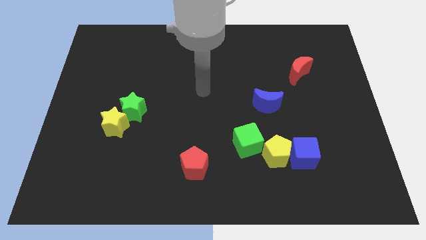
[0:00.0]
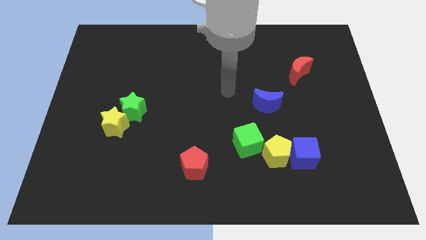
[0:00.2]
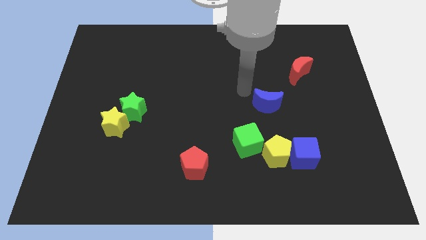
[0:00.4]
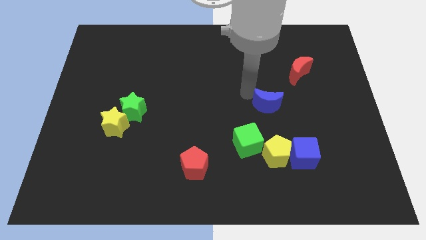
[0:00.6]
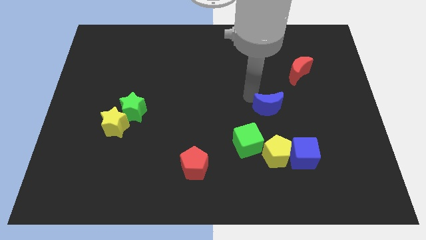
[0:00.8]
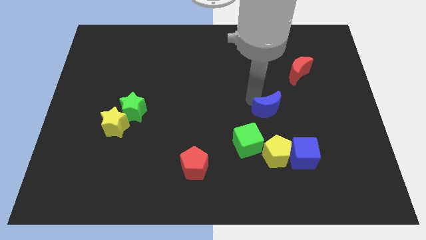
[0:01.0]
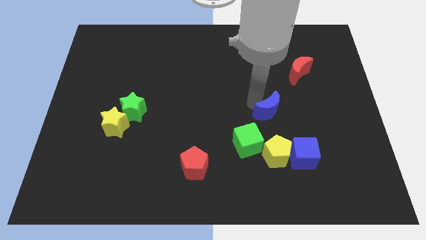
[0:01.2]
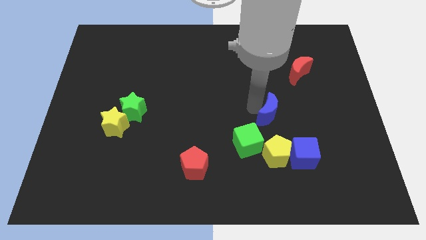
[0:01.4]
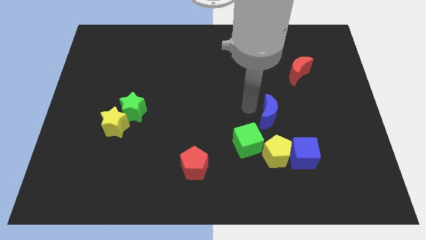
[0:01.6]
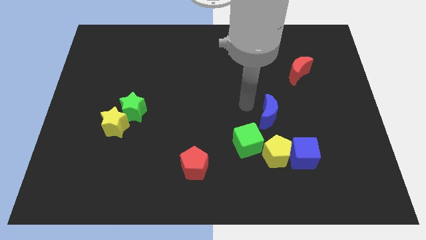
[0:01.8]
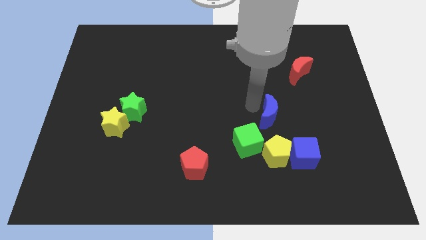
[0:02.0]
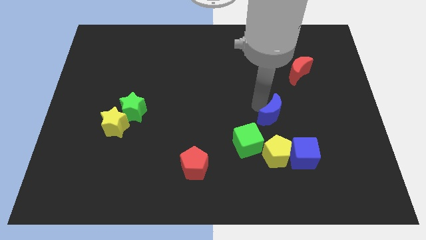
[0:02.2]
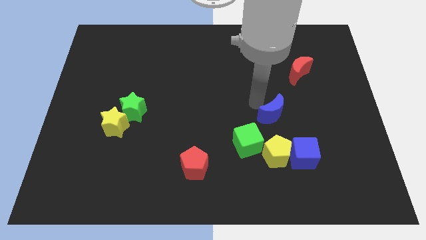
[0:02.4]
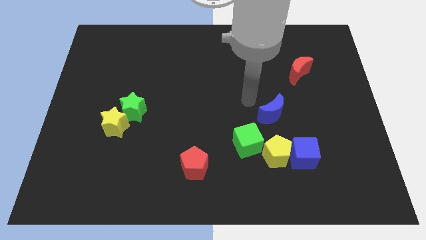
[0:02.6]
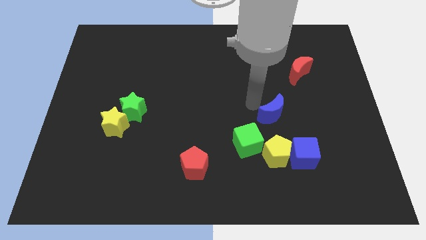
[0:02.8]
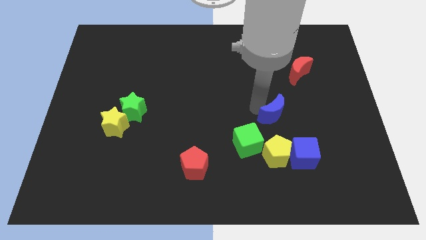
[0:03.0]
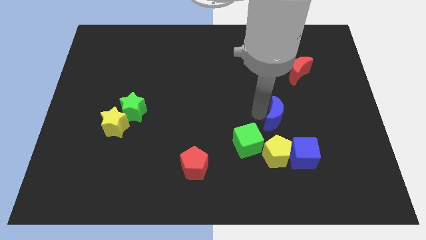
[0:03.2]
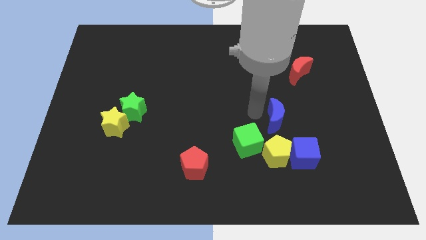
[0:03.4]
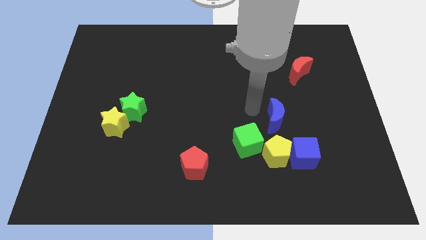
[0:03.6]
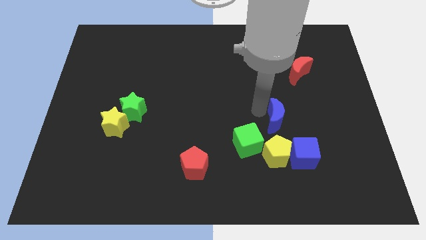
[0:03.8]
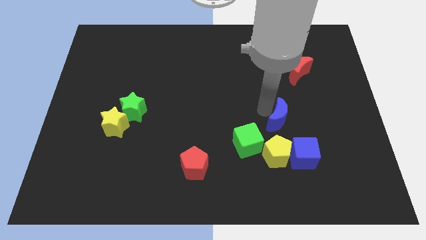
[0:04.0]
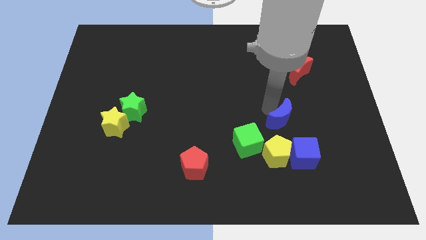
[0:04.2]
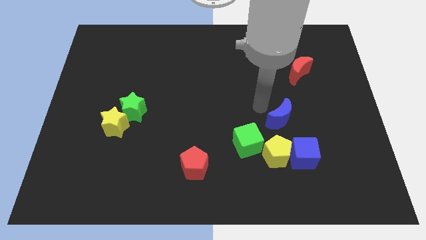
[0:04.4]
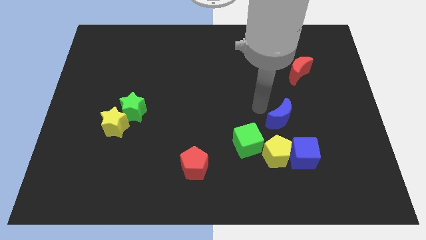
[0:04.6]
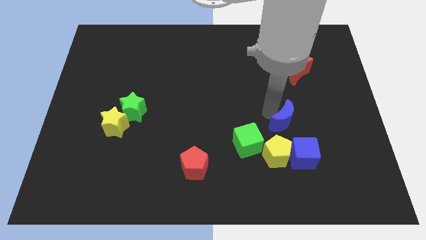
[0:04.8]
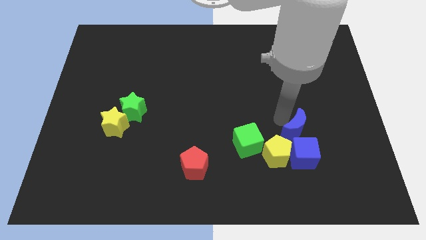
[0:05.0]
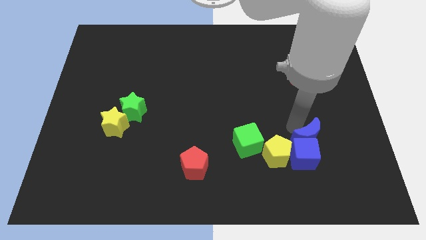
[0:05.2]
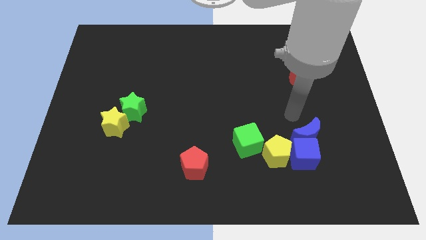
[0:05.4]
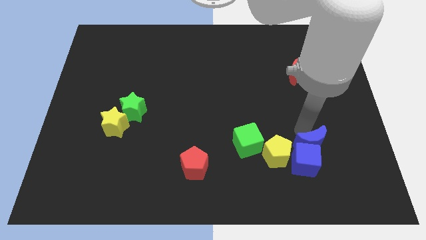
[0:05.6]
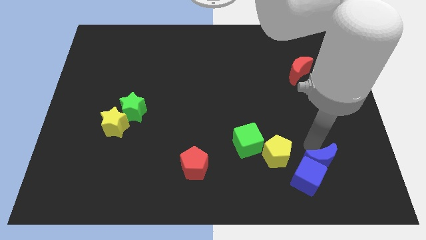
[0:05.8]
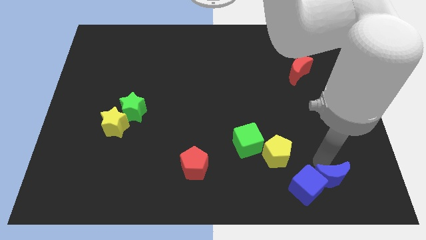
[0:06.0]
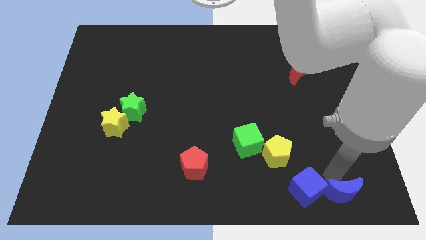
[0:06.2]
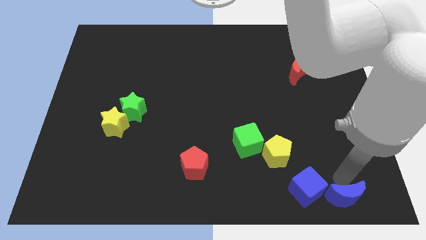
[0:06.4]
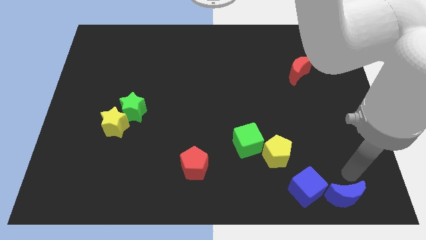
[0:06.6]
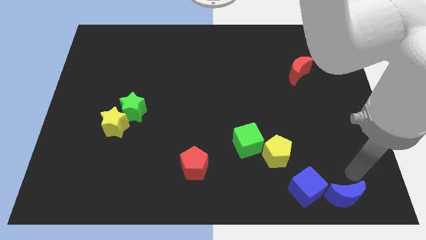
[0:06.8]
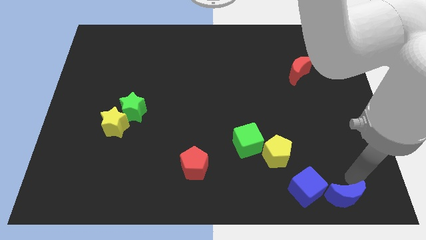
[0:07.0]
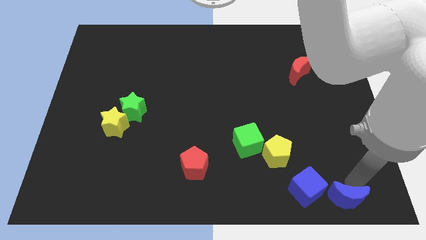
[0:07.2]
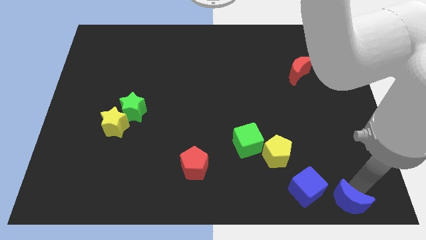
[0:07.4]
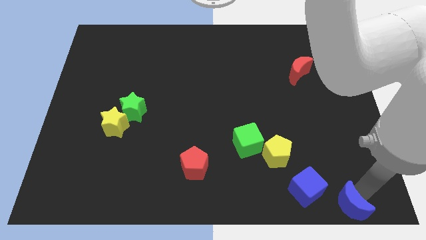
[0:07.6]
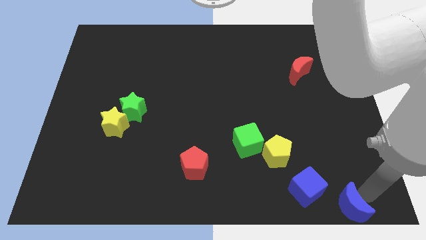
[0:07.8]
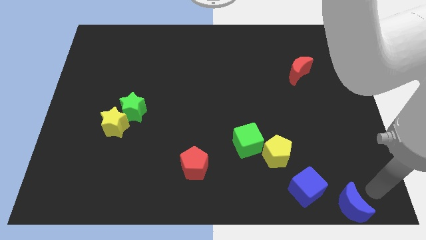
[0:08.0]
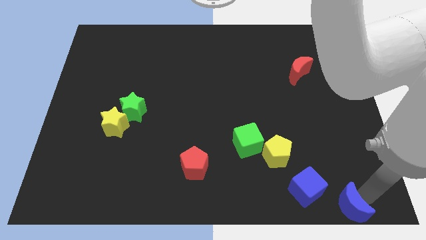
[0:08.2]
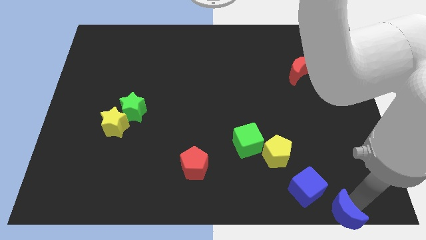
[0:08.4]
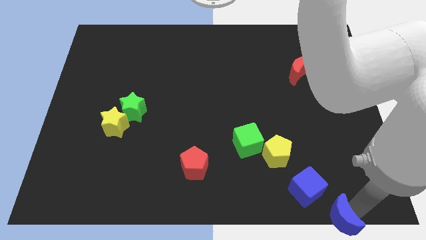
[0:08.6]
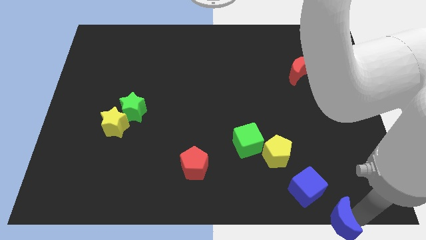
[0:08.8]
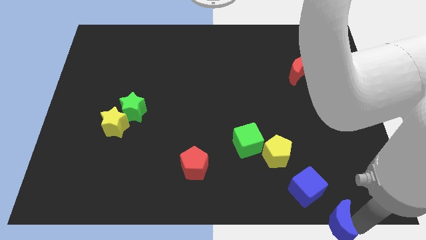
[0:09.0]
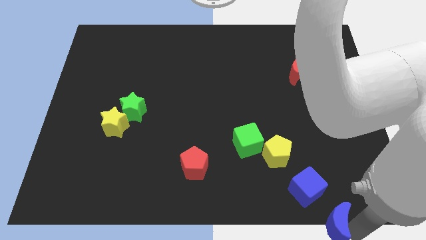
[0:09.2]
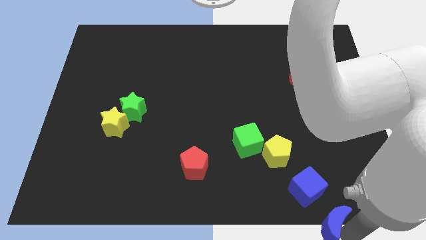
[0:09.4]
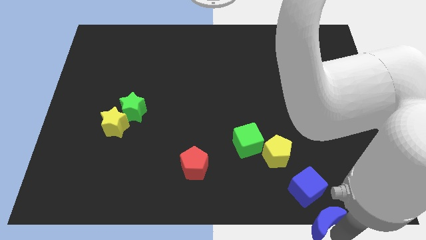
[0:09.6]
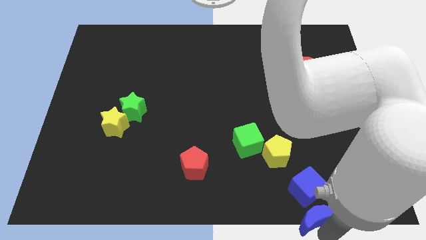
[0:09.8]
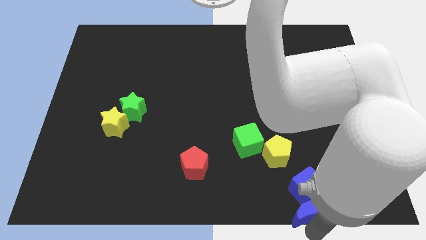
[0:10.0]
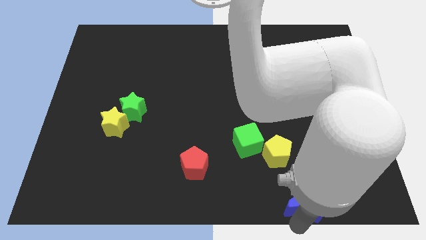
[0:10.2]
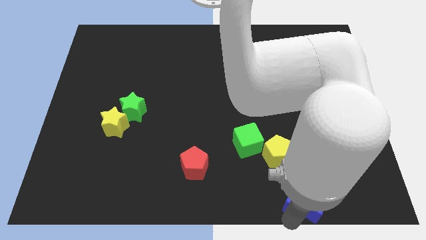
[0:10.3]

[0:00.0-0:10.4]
move the blue moon to the bottom right side of the blue cube

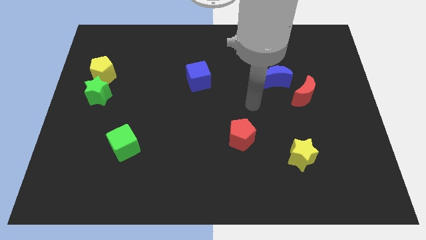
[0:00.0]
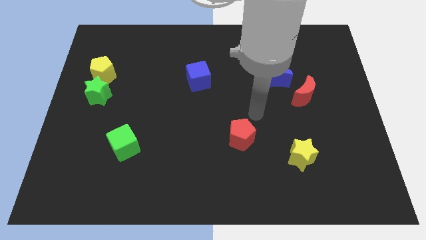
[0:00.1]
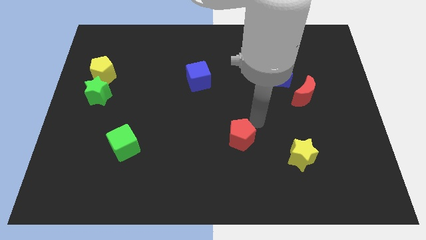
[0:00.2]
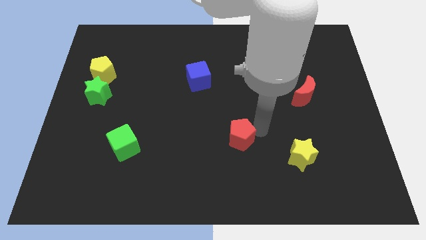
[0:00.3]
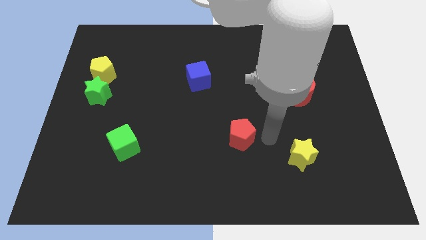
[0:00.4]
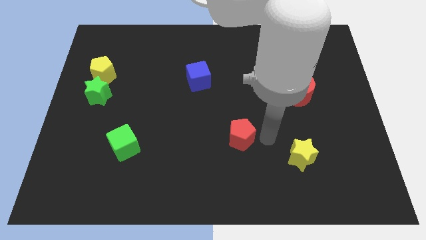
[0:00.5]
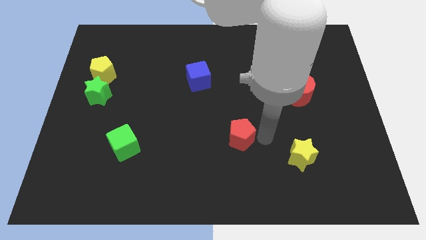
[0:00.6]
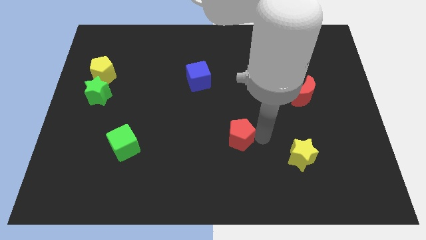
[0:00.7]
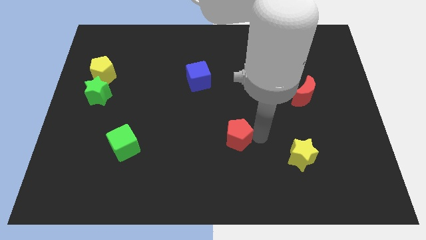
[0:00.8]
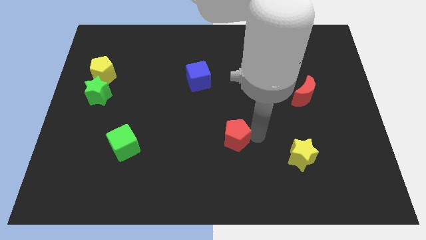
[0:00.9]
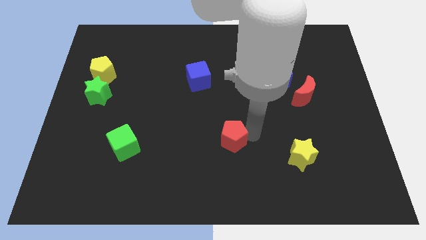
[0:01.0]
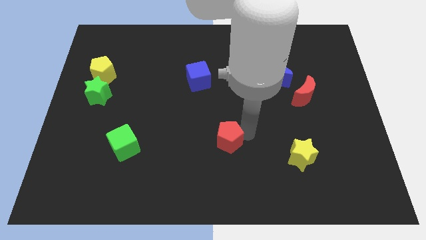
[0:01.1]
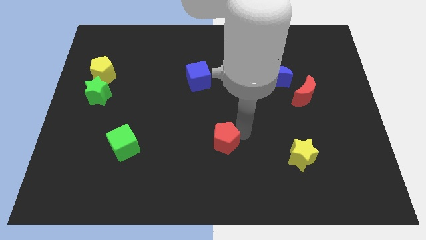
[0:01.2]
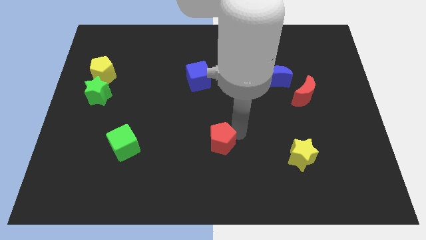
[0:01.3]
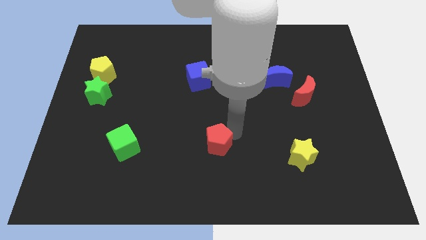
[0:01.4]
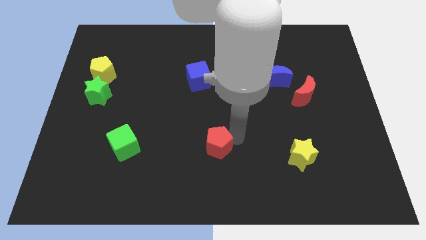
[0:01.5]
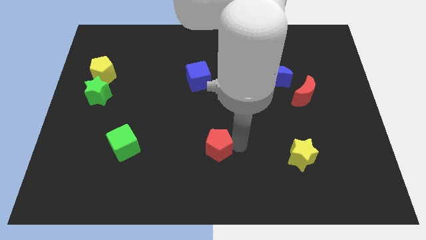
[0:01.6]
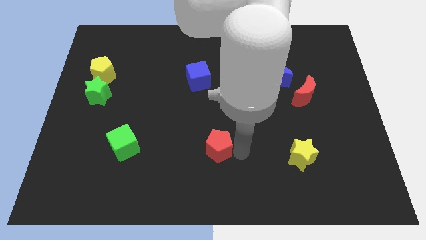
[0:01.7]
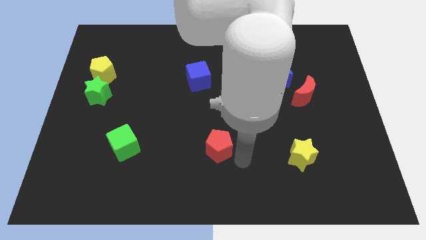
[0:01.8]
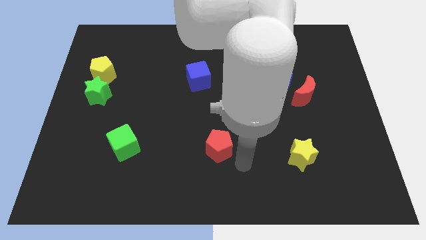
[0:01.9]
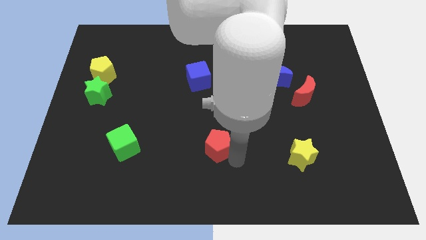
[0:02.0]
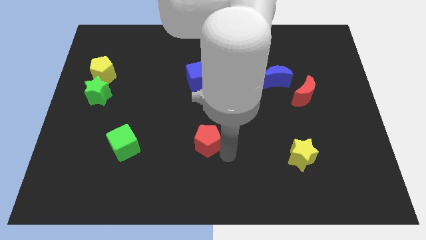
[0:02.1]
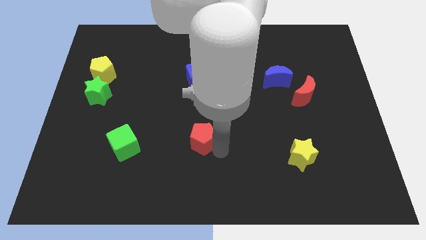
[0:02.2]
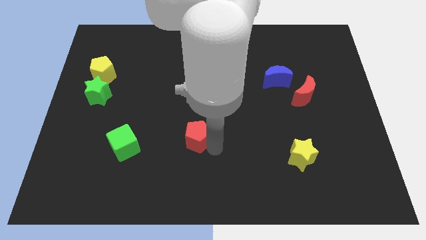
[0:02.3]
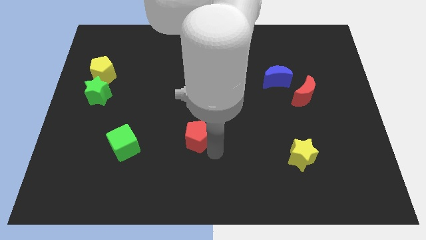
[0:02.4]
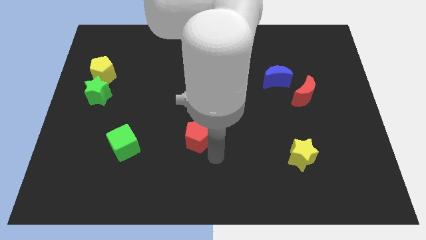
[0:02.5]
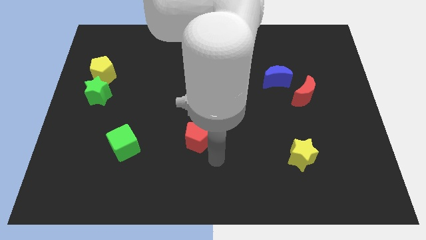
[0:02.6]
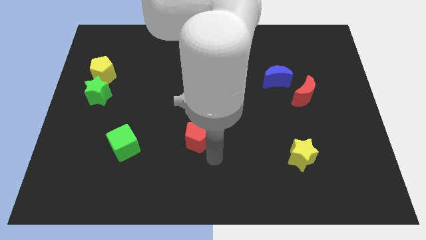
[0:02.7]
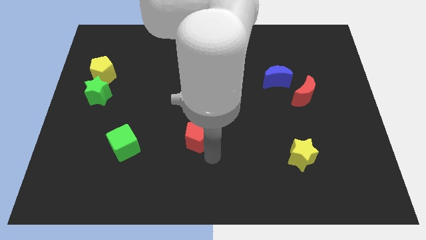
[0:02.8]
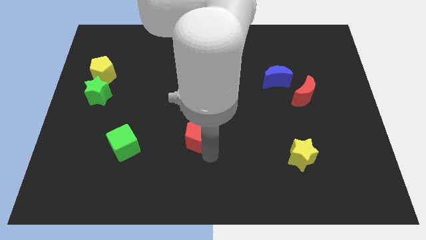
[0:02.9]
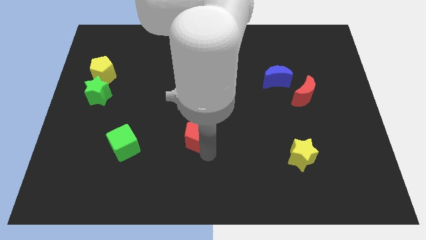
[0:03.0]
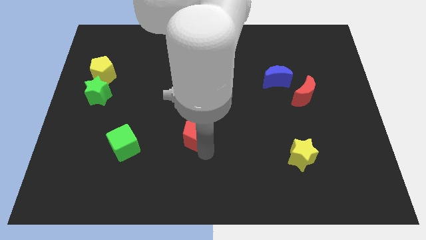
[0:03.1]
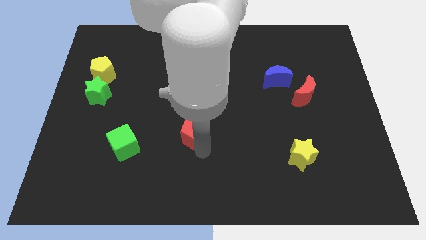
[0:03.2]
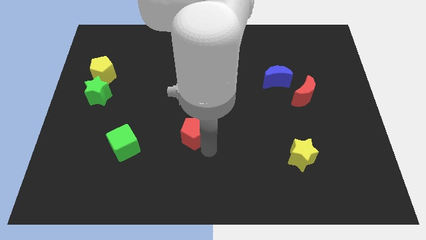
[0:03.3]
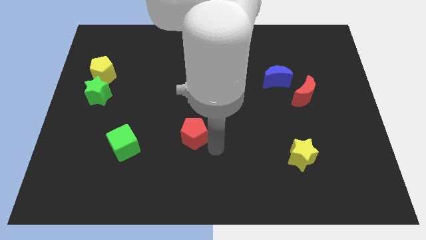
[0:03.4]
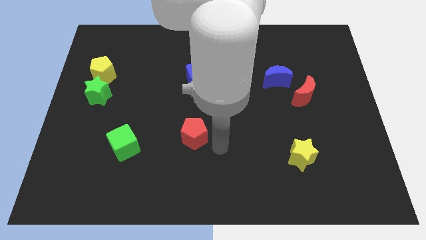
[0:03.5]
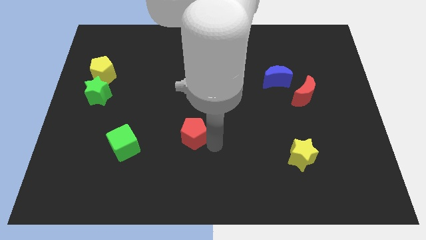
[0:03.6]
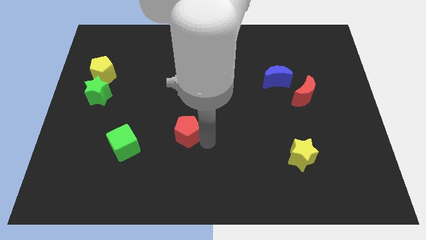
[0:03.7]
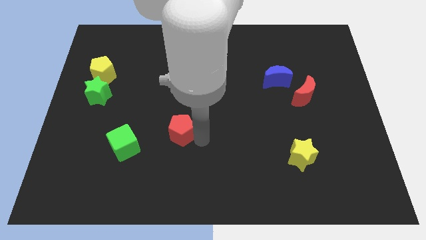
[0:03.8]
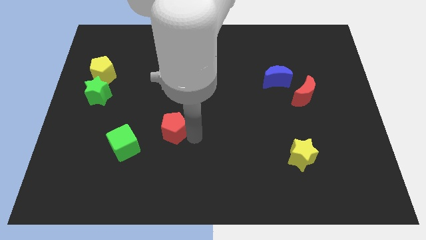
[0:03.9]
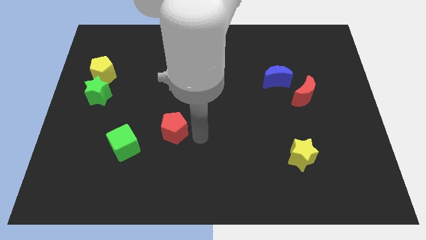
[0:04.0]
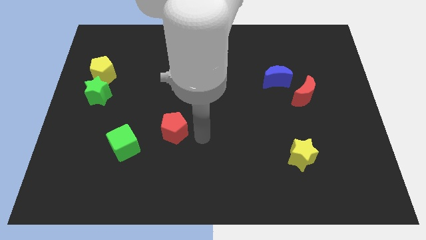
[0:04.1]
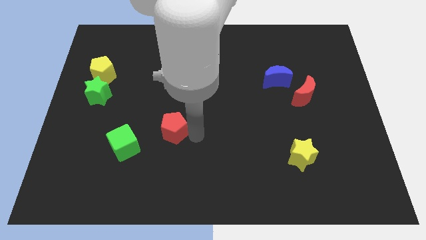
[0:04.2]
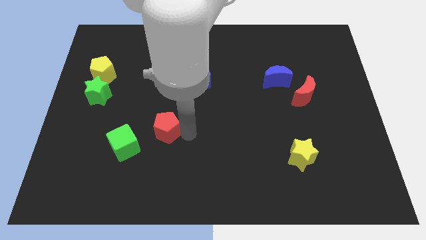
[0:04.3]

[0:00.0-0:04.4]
slide the red pentagon to the top right side of the green cube
